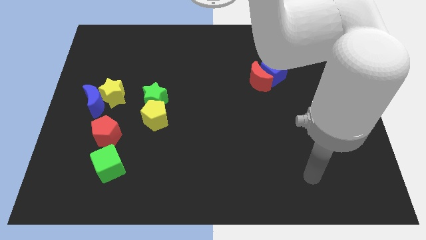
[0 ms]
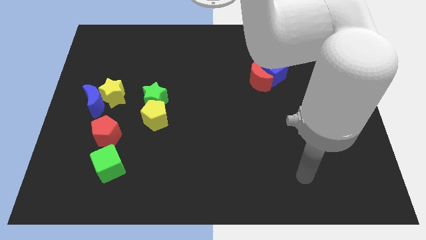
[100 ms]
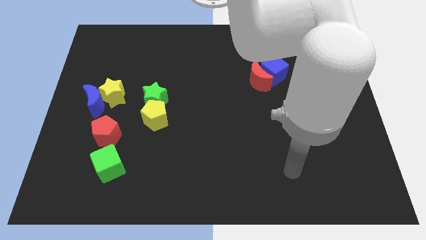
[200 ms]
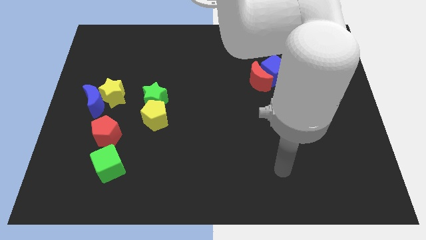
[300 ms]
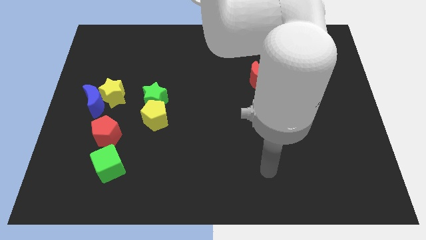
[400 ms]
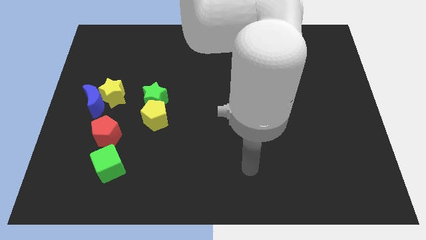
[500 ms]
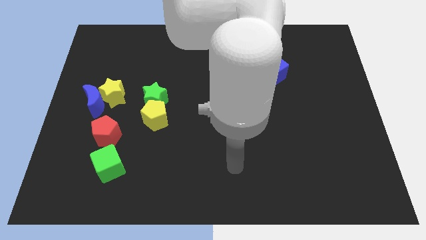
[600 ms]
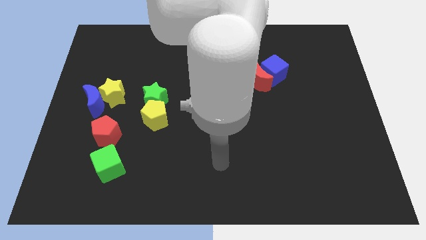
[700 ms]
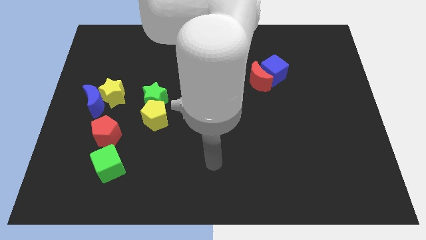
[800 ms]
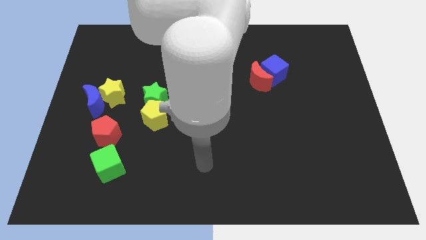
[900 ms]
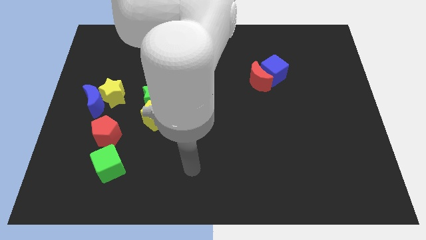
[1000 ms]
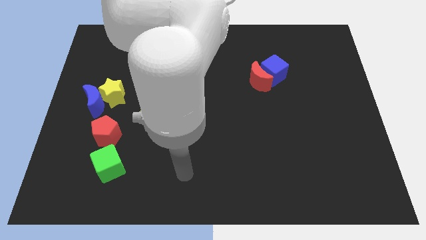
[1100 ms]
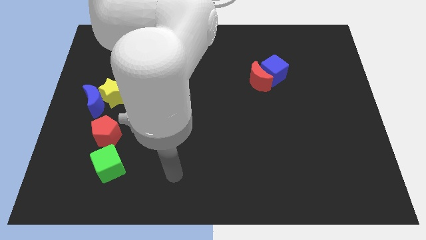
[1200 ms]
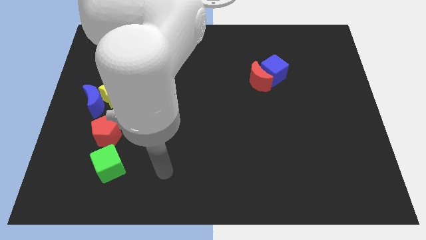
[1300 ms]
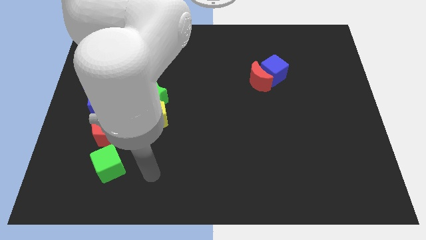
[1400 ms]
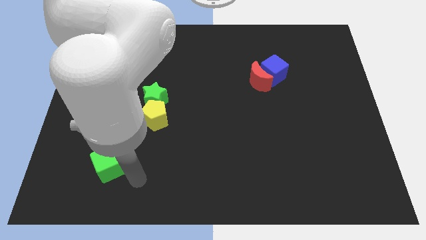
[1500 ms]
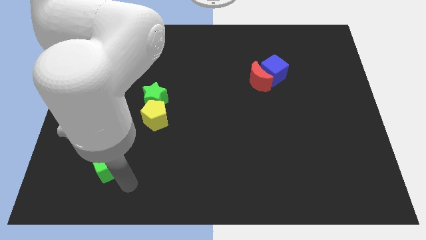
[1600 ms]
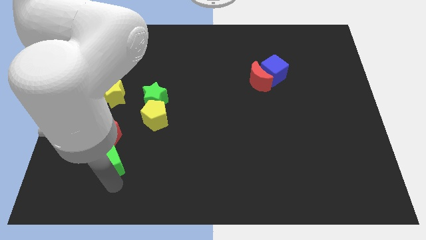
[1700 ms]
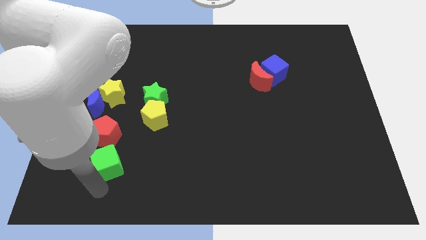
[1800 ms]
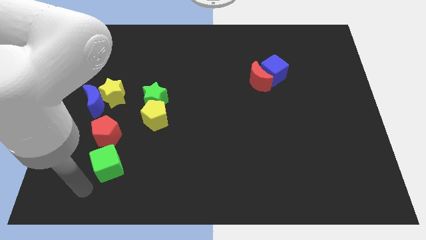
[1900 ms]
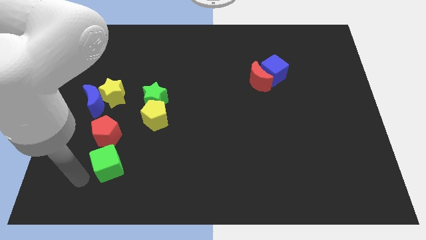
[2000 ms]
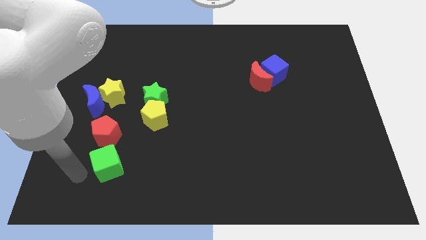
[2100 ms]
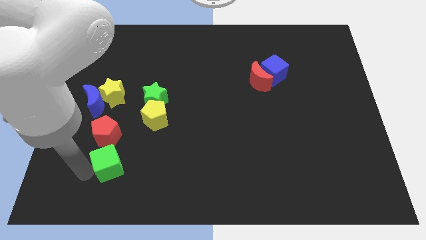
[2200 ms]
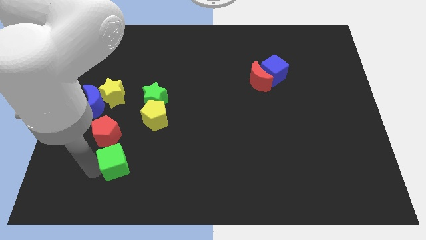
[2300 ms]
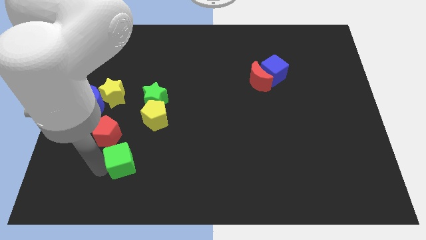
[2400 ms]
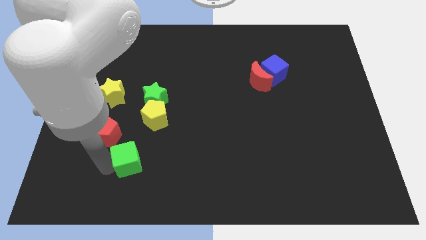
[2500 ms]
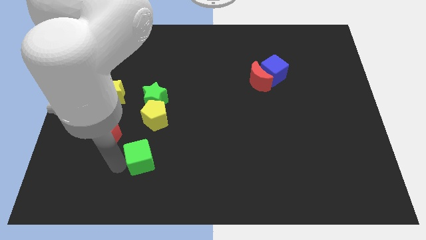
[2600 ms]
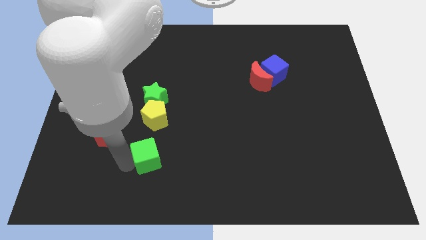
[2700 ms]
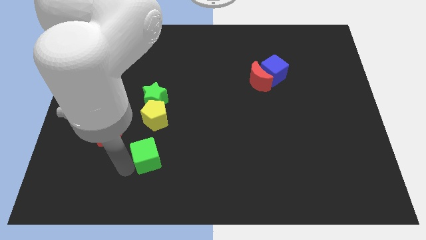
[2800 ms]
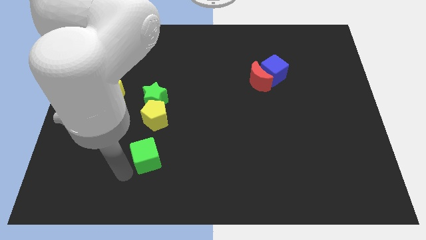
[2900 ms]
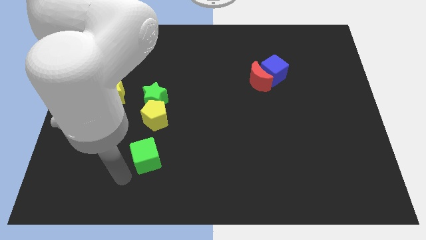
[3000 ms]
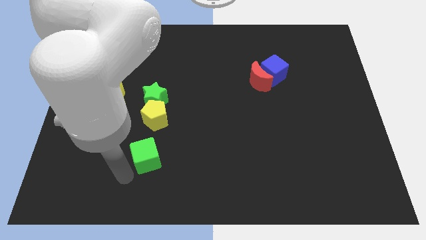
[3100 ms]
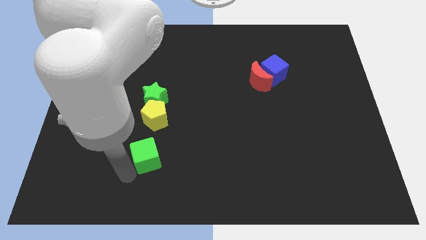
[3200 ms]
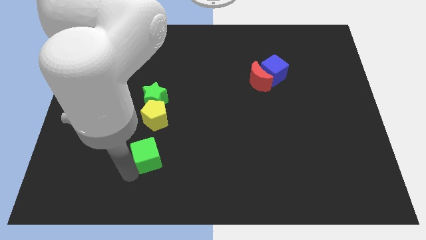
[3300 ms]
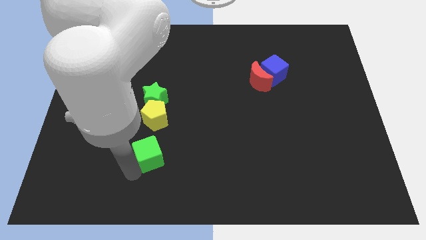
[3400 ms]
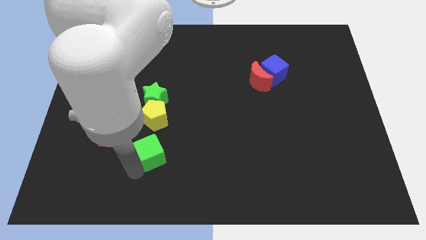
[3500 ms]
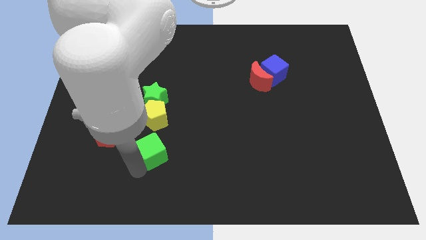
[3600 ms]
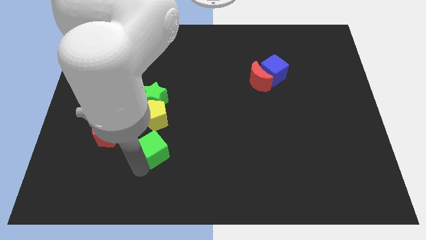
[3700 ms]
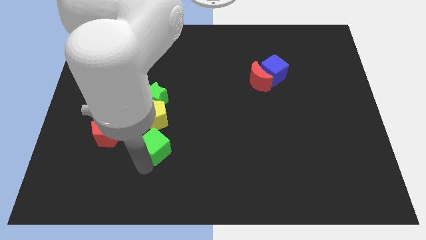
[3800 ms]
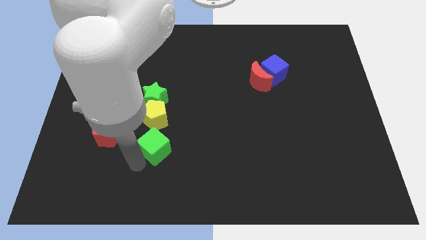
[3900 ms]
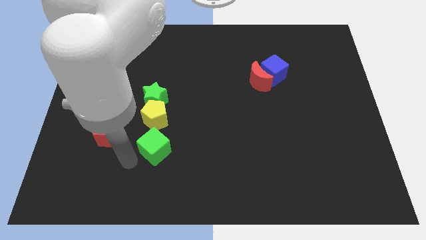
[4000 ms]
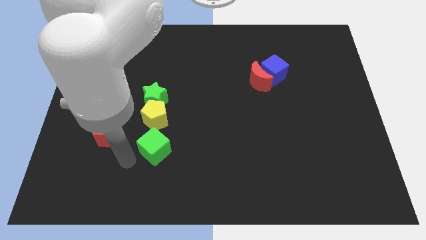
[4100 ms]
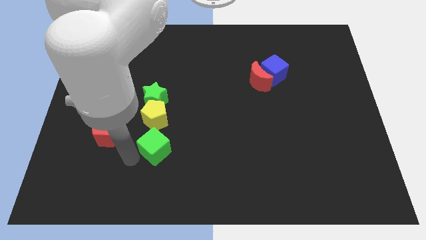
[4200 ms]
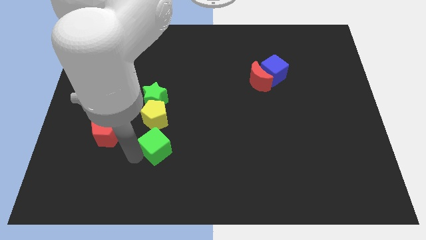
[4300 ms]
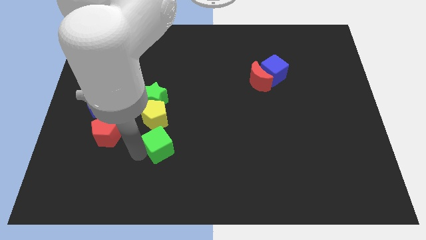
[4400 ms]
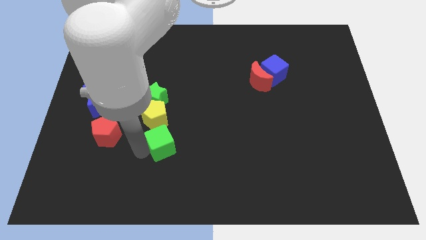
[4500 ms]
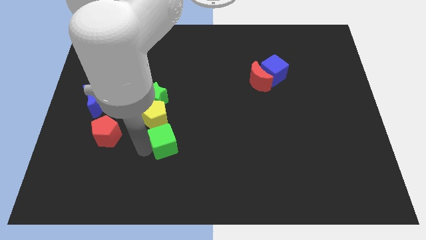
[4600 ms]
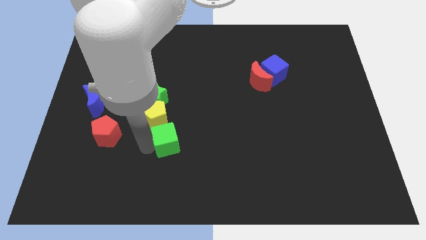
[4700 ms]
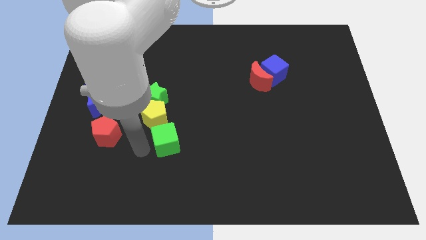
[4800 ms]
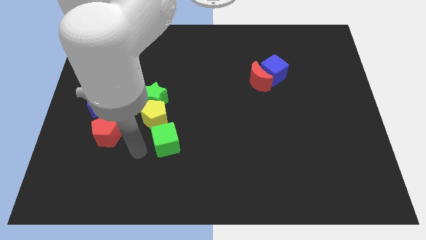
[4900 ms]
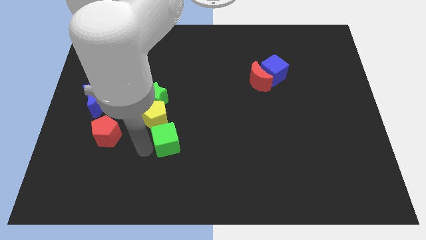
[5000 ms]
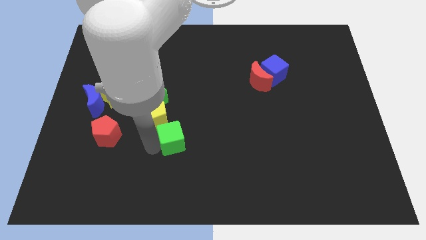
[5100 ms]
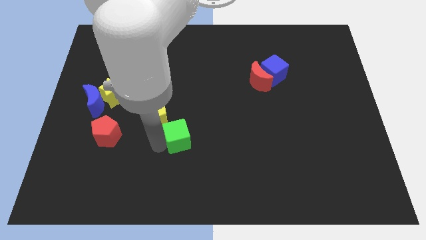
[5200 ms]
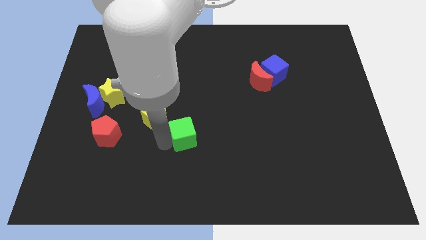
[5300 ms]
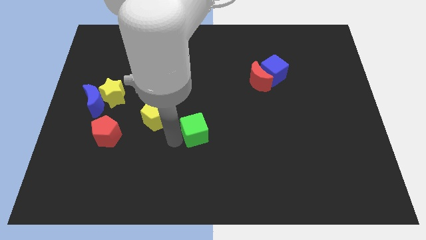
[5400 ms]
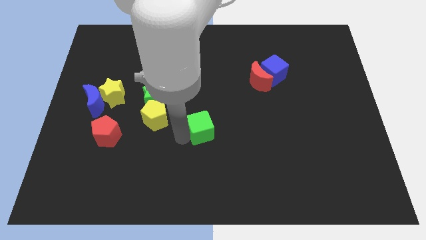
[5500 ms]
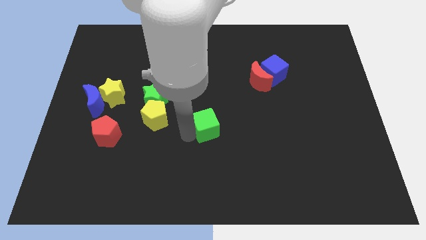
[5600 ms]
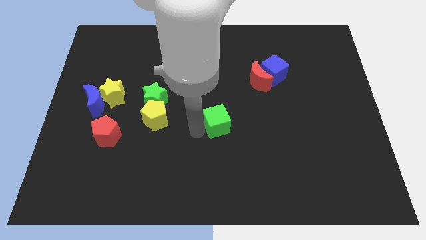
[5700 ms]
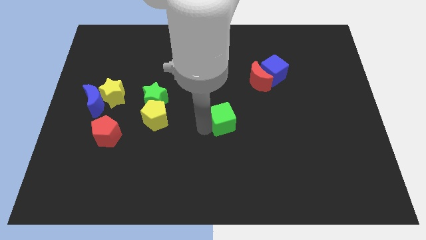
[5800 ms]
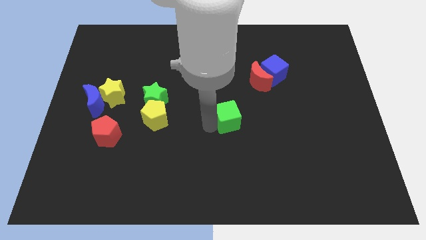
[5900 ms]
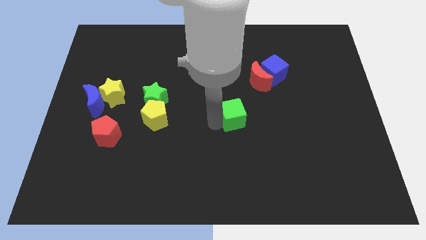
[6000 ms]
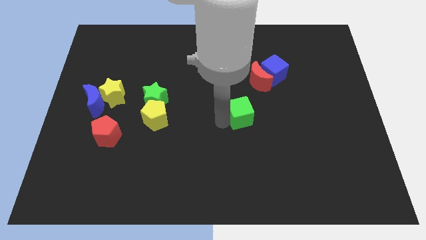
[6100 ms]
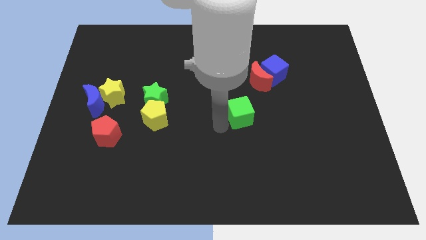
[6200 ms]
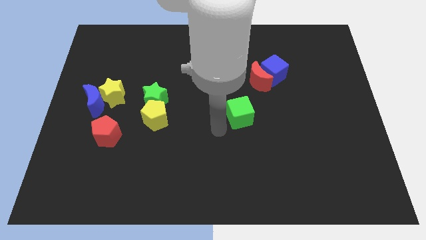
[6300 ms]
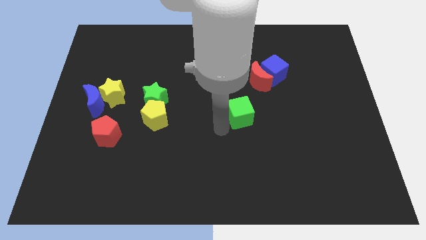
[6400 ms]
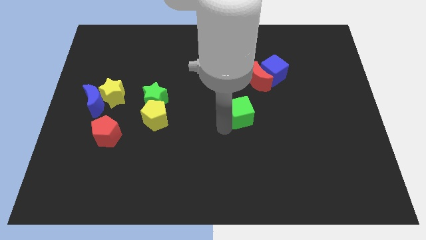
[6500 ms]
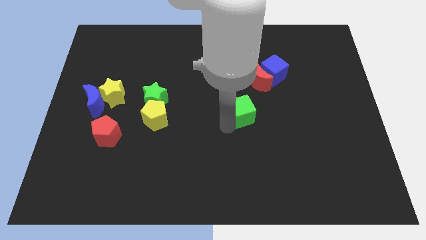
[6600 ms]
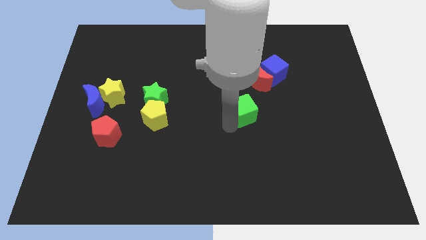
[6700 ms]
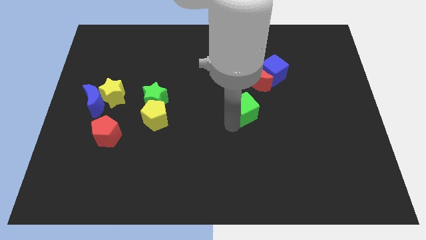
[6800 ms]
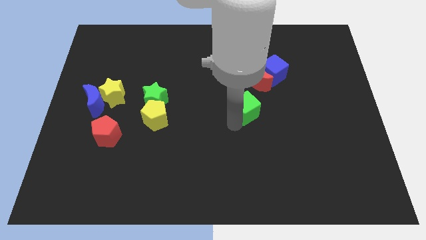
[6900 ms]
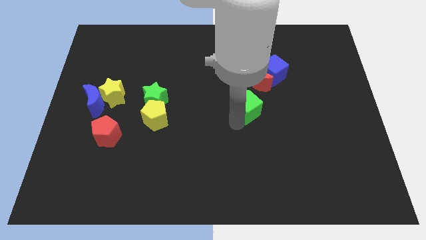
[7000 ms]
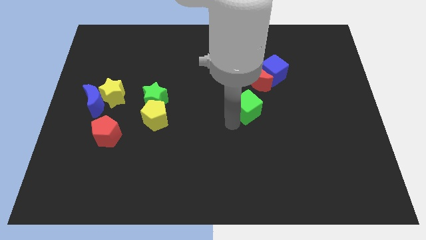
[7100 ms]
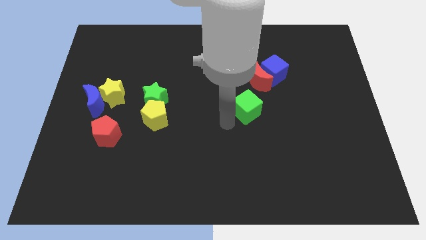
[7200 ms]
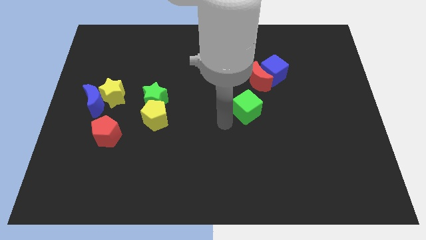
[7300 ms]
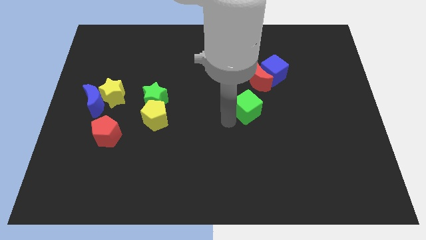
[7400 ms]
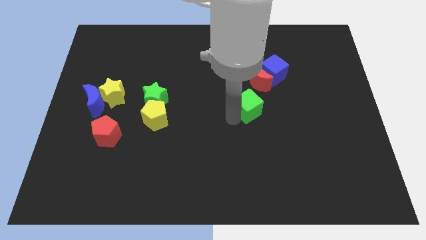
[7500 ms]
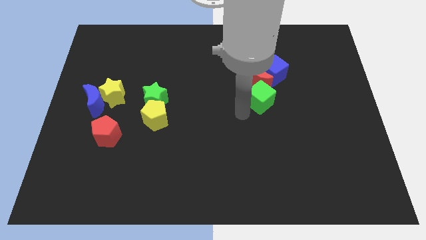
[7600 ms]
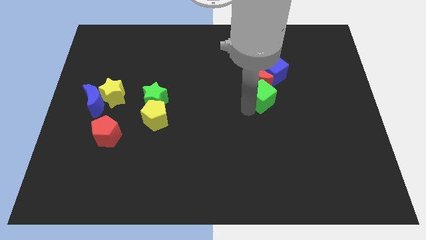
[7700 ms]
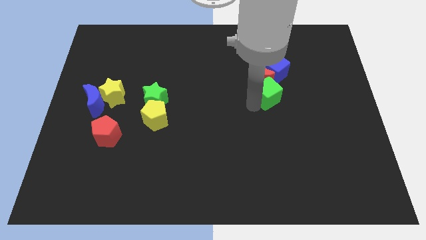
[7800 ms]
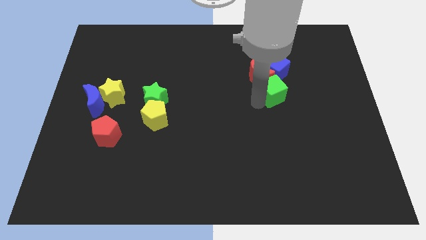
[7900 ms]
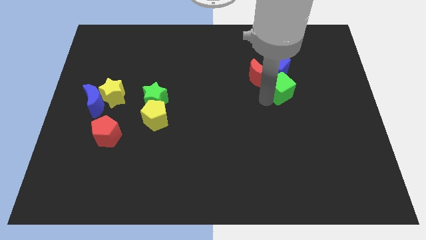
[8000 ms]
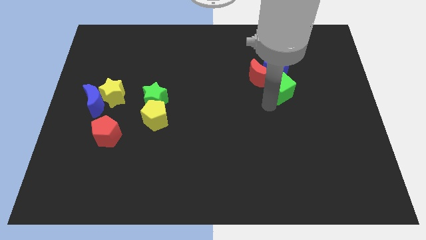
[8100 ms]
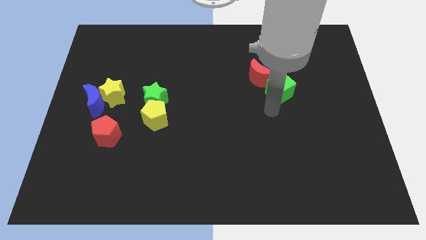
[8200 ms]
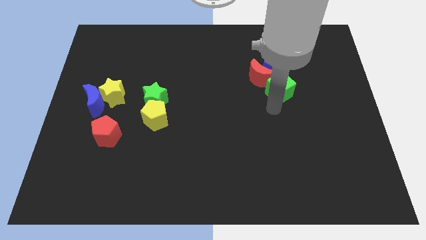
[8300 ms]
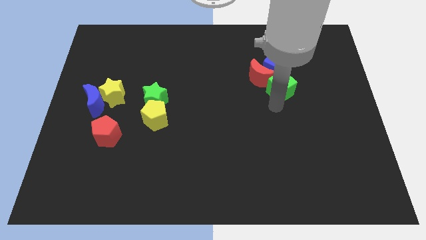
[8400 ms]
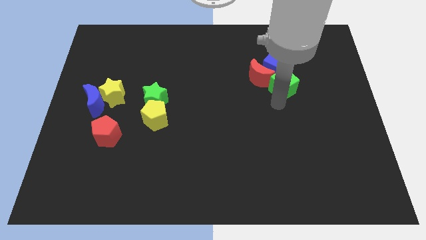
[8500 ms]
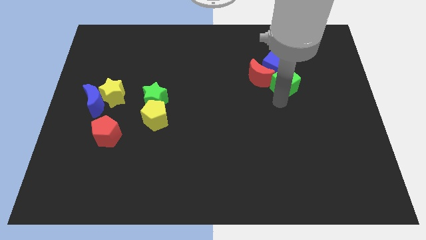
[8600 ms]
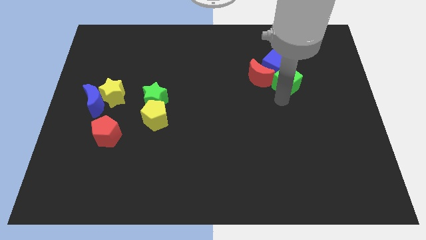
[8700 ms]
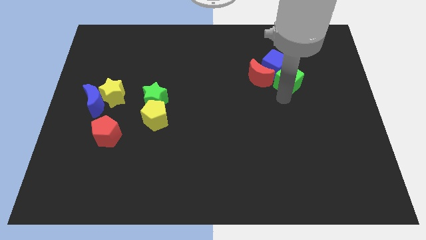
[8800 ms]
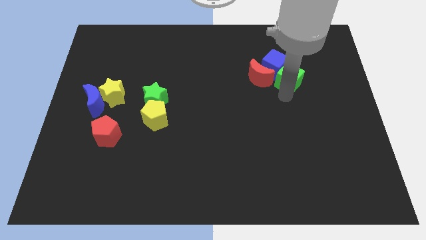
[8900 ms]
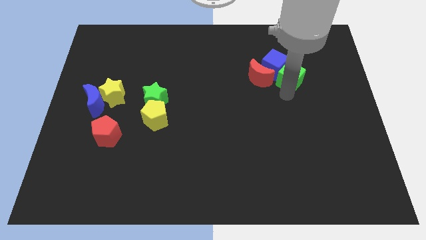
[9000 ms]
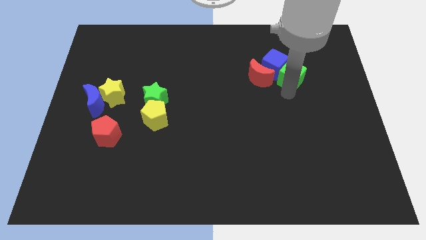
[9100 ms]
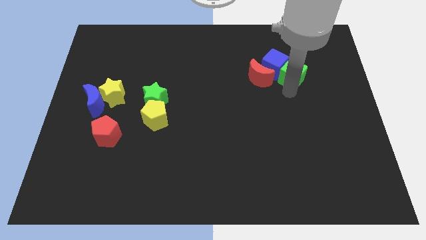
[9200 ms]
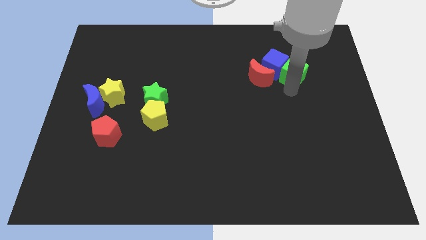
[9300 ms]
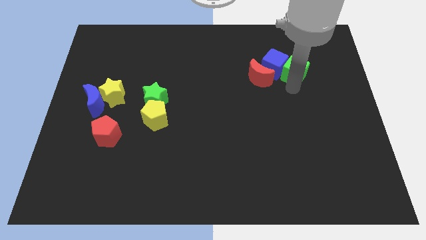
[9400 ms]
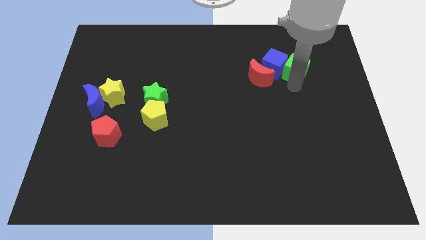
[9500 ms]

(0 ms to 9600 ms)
put the green cube diagonally up and to the right of the blue cube
